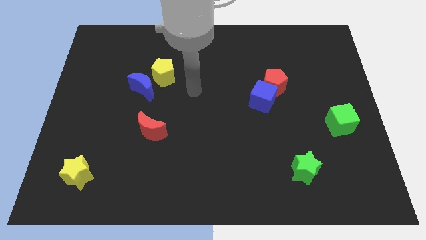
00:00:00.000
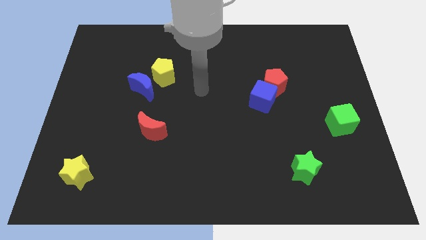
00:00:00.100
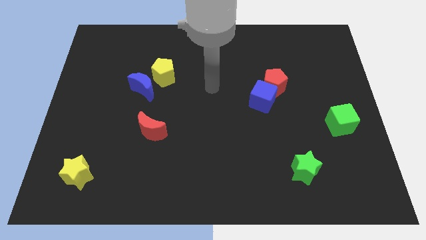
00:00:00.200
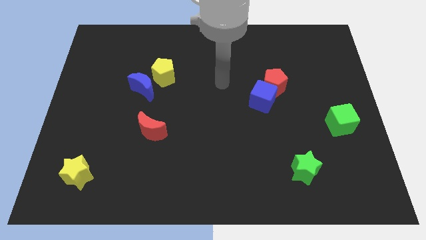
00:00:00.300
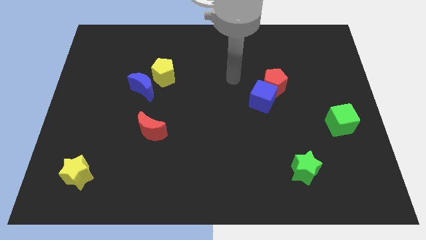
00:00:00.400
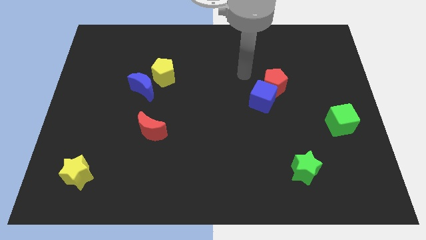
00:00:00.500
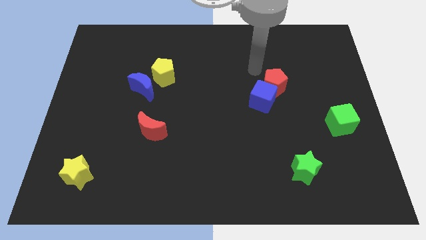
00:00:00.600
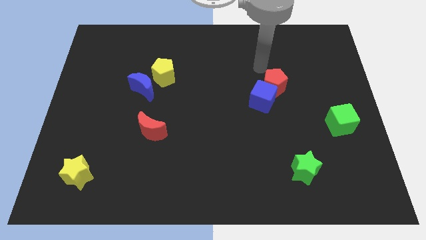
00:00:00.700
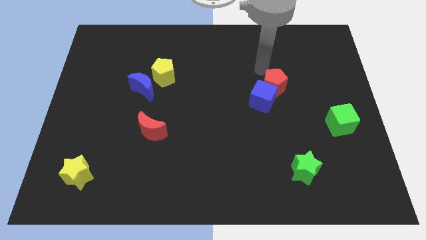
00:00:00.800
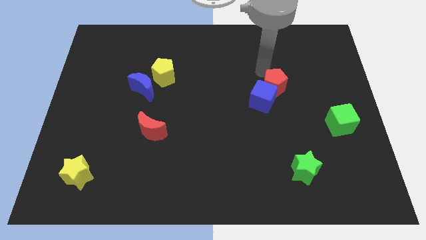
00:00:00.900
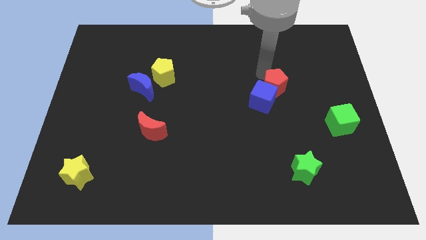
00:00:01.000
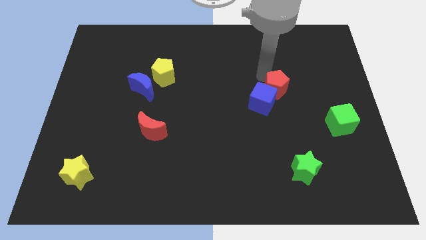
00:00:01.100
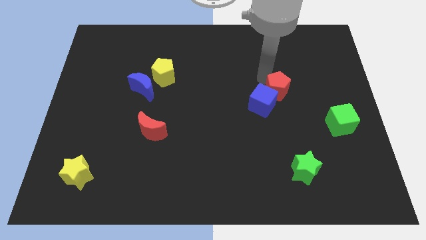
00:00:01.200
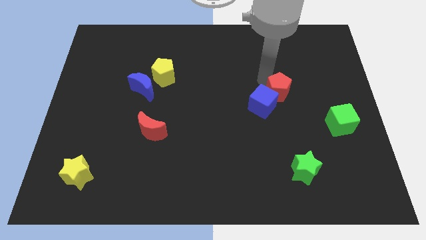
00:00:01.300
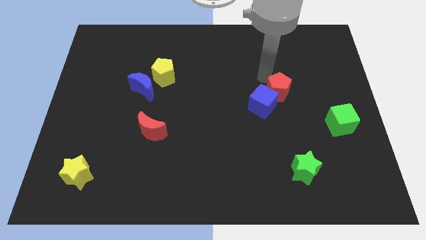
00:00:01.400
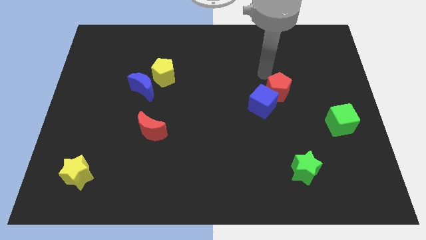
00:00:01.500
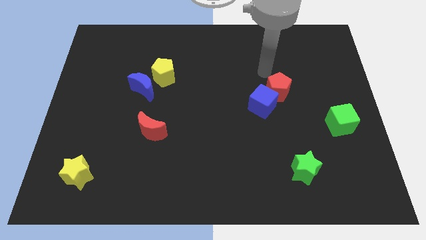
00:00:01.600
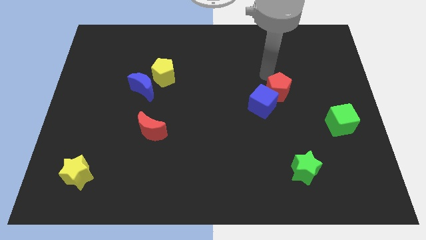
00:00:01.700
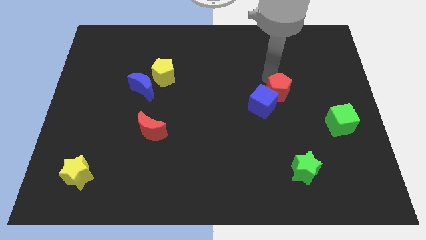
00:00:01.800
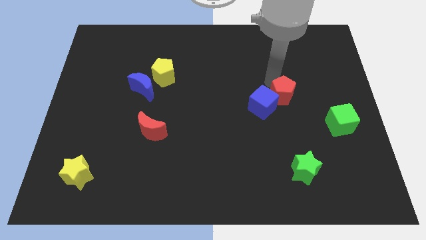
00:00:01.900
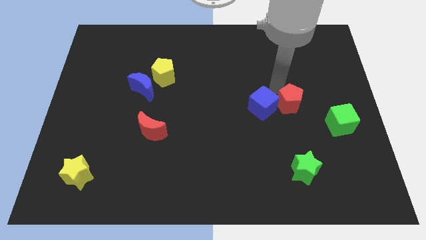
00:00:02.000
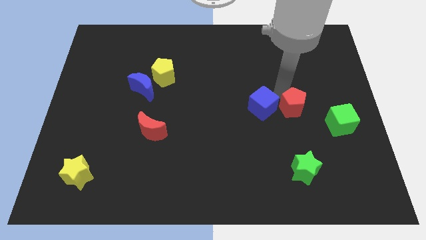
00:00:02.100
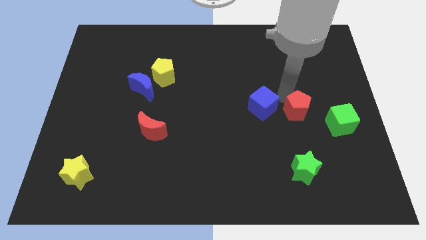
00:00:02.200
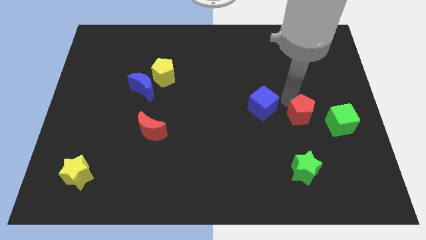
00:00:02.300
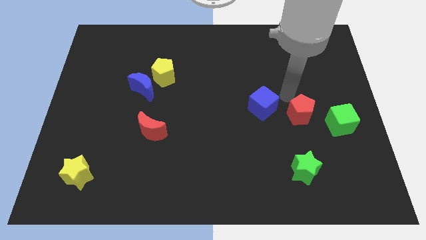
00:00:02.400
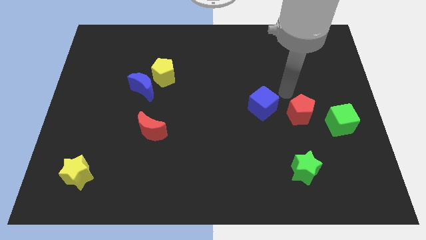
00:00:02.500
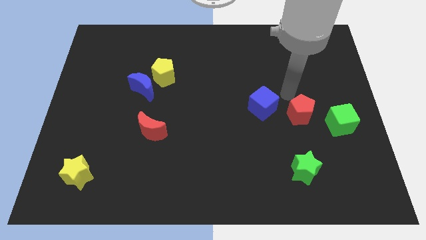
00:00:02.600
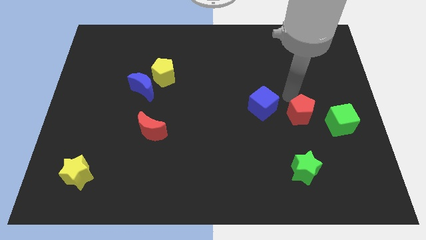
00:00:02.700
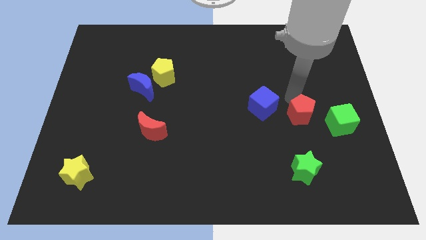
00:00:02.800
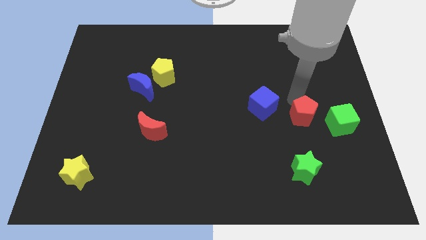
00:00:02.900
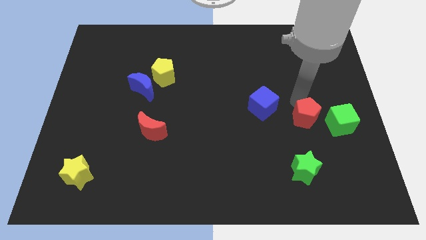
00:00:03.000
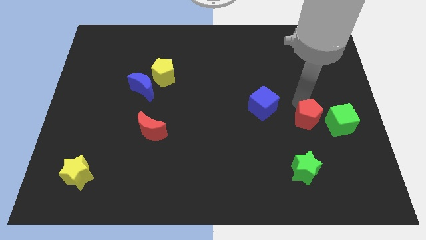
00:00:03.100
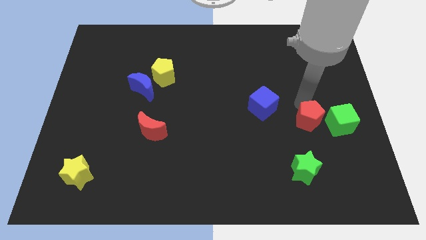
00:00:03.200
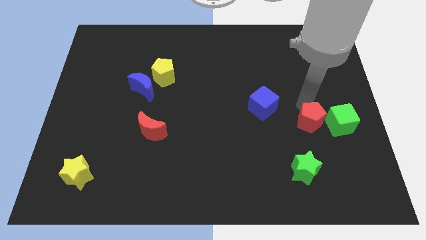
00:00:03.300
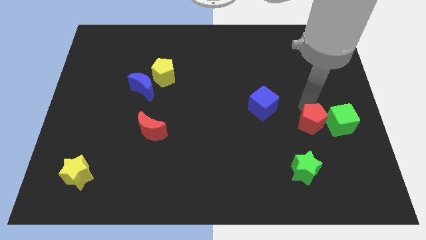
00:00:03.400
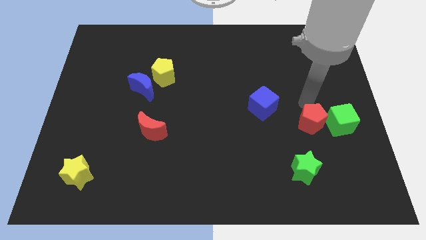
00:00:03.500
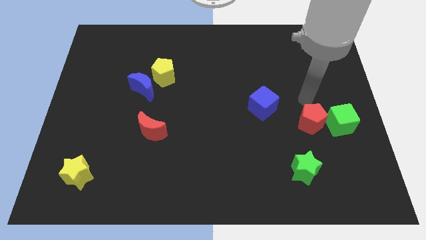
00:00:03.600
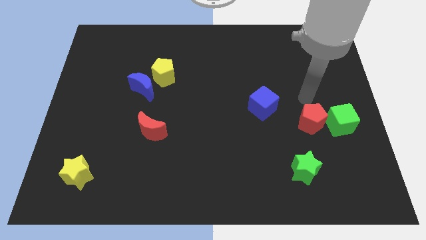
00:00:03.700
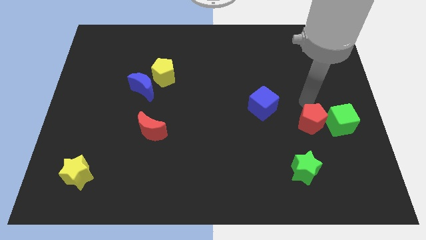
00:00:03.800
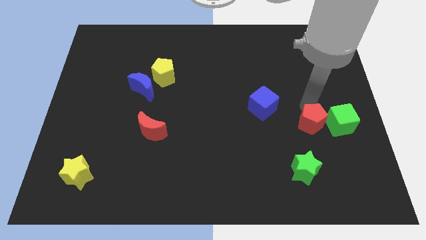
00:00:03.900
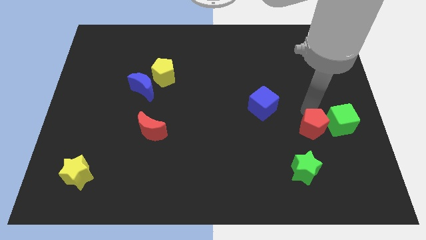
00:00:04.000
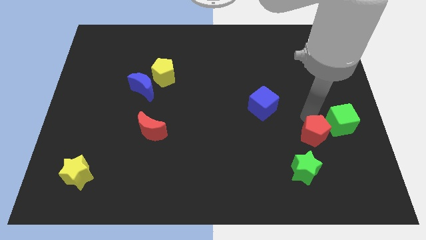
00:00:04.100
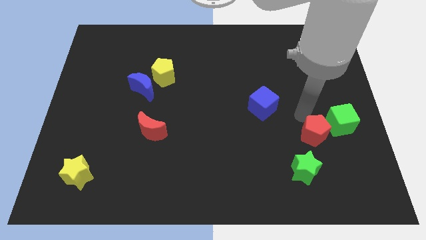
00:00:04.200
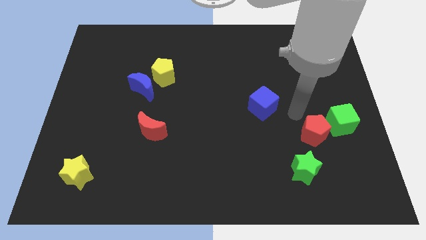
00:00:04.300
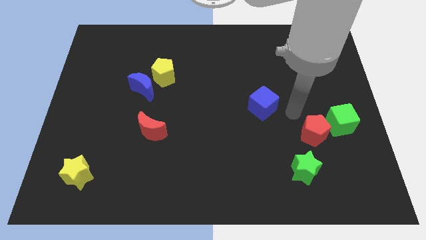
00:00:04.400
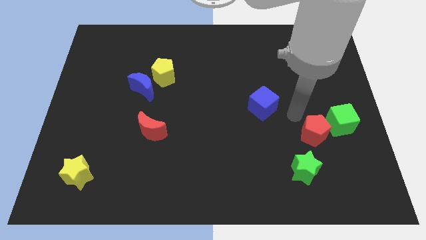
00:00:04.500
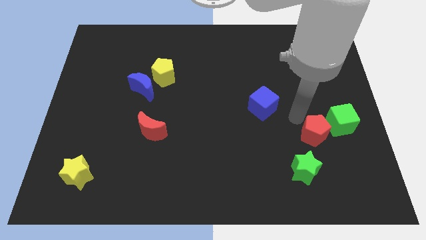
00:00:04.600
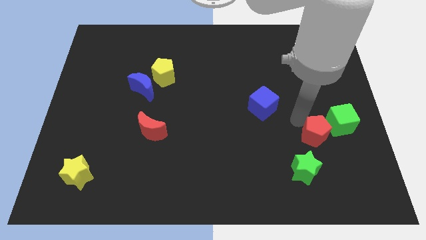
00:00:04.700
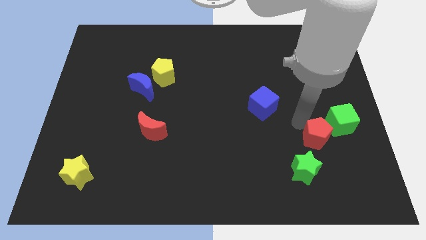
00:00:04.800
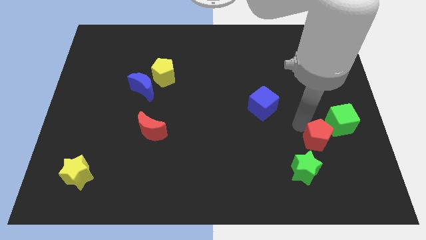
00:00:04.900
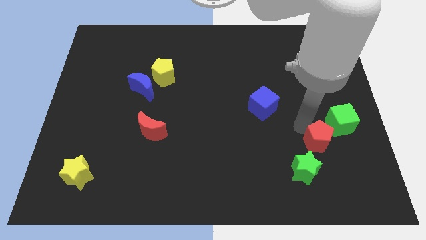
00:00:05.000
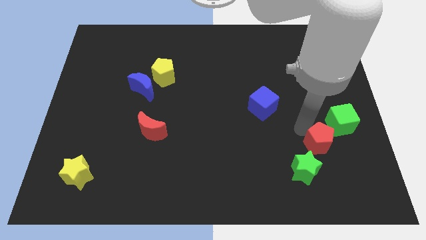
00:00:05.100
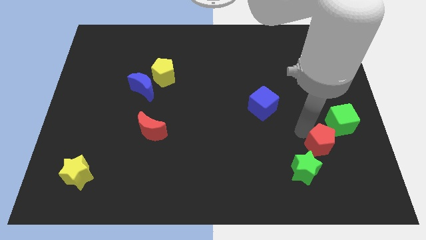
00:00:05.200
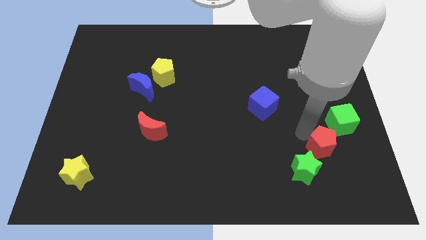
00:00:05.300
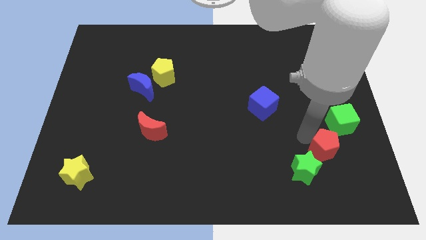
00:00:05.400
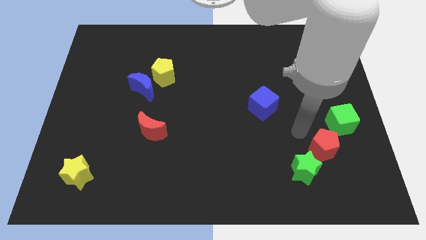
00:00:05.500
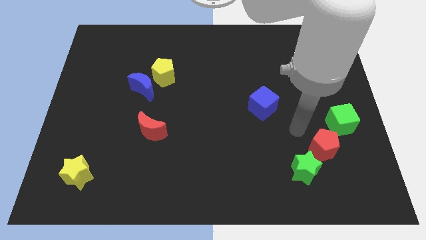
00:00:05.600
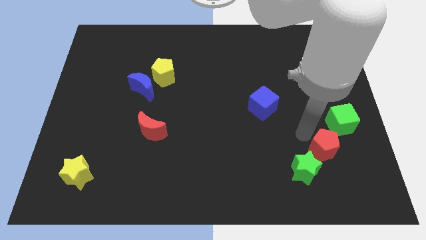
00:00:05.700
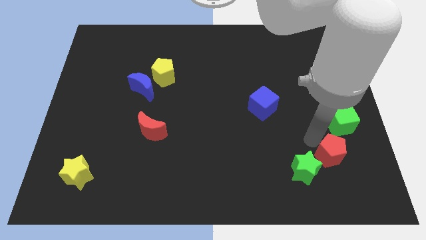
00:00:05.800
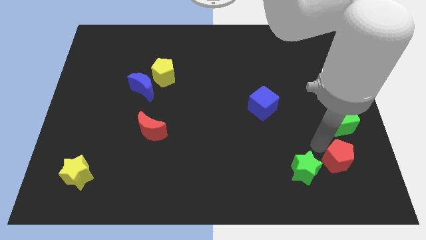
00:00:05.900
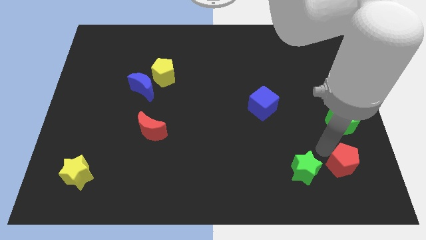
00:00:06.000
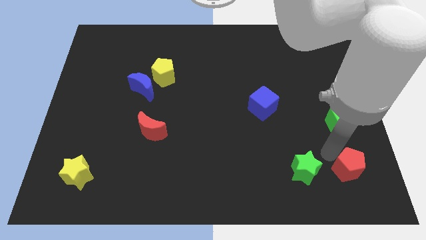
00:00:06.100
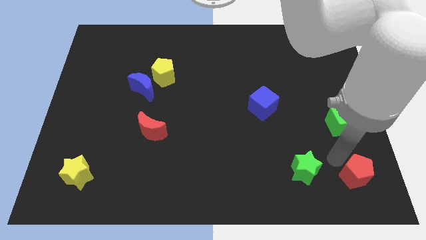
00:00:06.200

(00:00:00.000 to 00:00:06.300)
move the red pentagon to the bottom right of the board

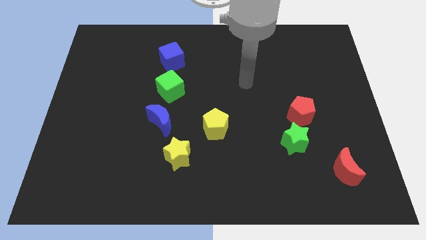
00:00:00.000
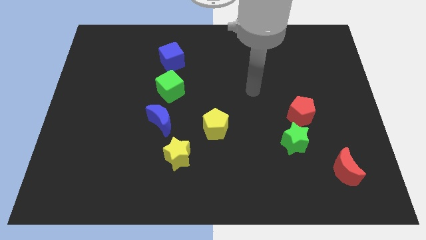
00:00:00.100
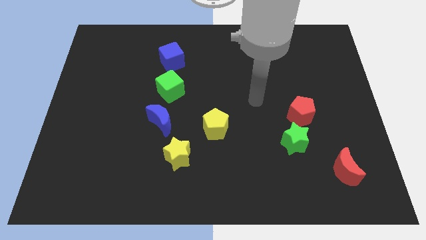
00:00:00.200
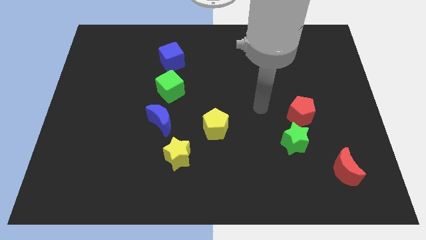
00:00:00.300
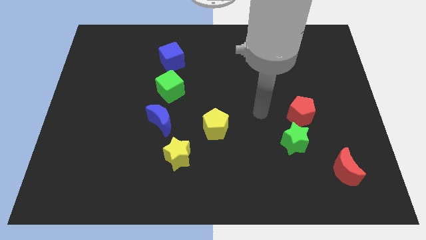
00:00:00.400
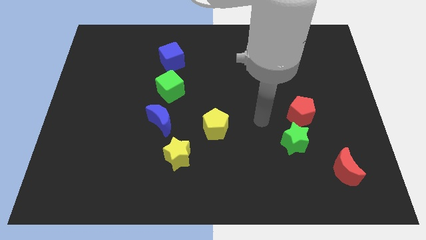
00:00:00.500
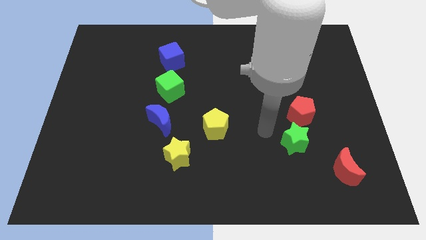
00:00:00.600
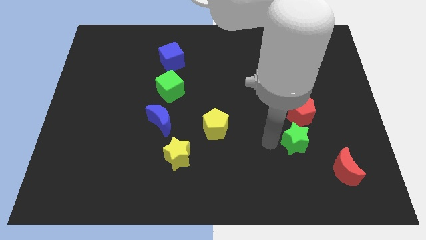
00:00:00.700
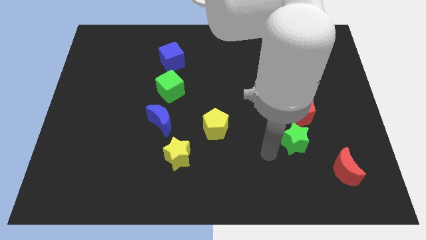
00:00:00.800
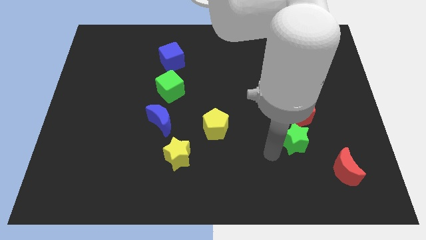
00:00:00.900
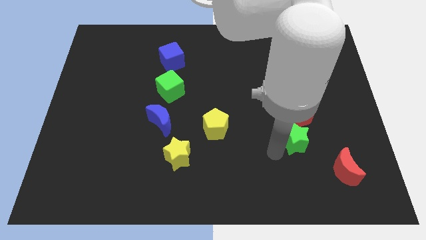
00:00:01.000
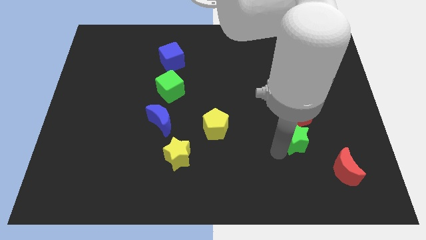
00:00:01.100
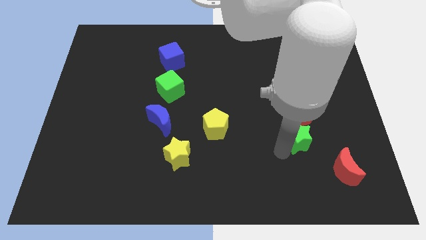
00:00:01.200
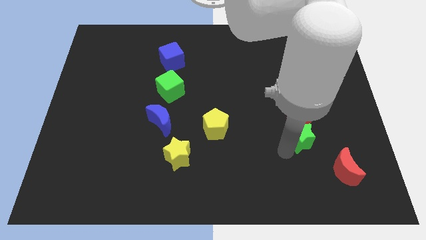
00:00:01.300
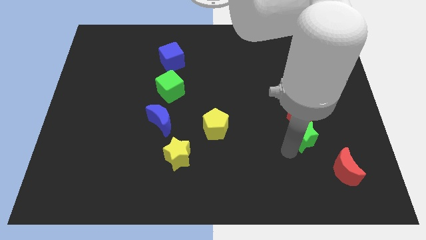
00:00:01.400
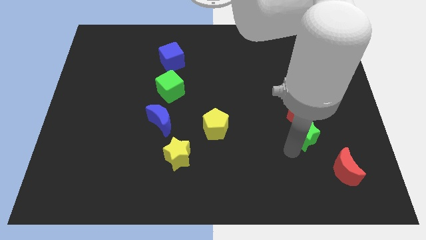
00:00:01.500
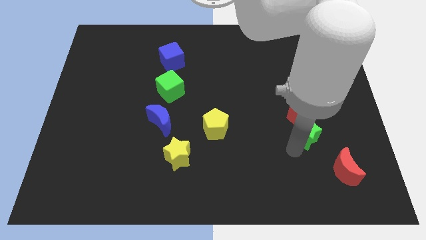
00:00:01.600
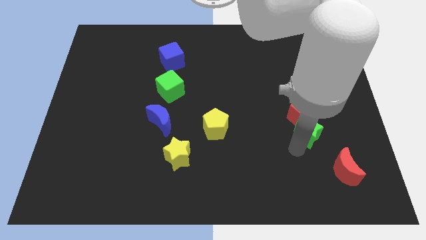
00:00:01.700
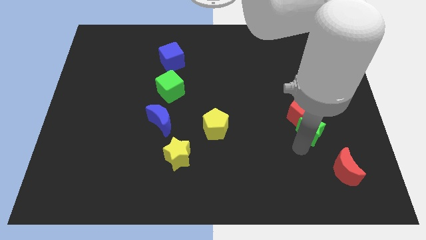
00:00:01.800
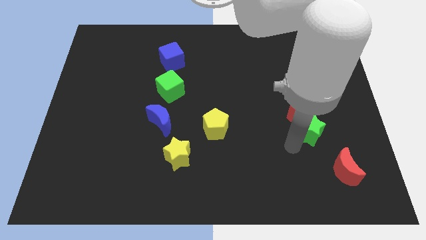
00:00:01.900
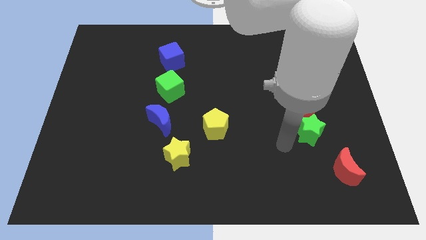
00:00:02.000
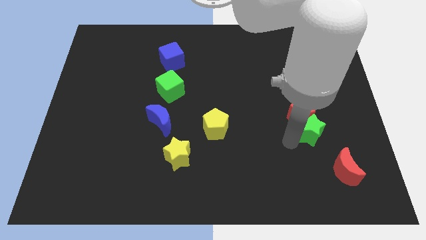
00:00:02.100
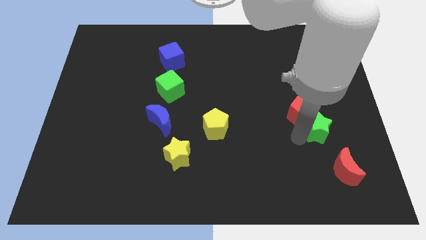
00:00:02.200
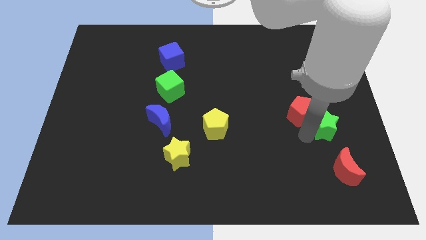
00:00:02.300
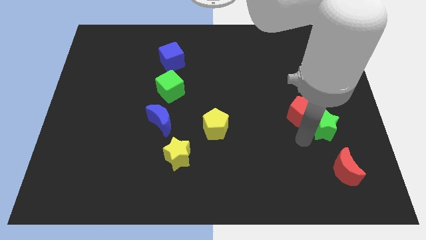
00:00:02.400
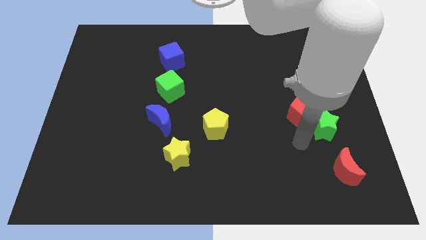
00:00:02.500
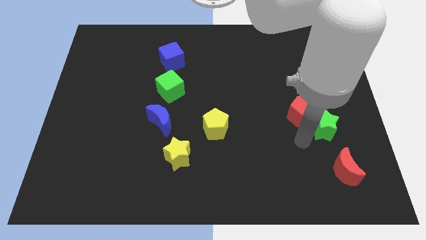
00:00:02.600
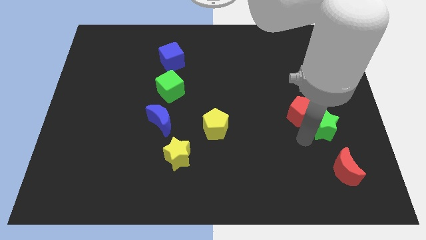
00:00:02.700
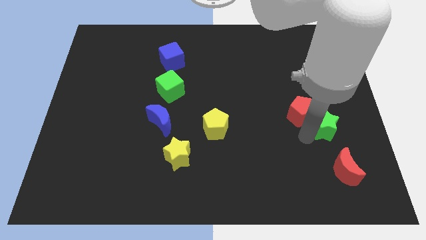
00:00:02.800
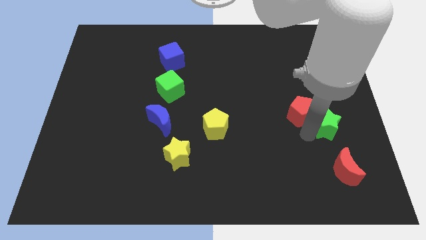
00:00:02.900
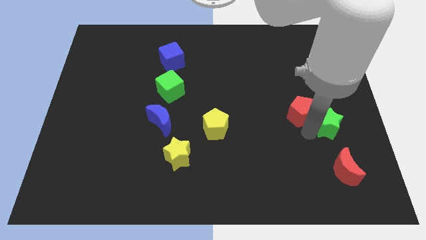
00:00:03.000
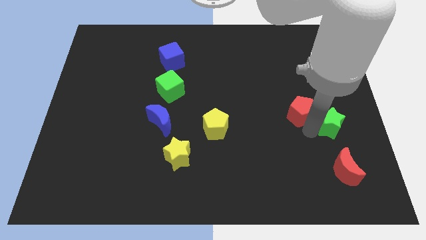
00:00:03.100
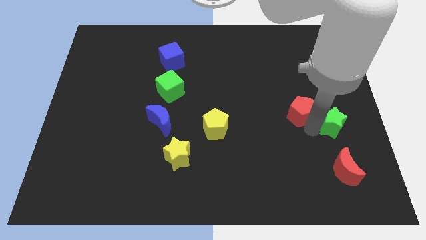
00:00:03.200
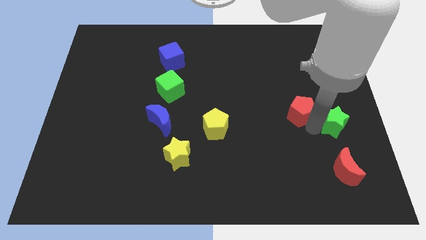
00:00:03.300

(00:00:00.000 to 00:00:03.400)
push the green star to the right side
